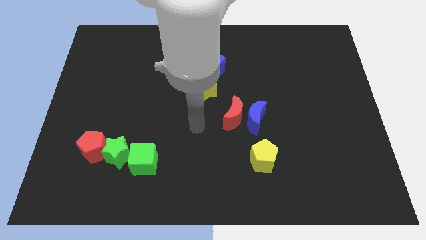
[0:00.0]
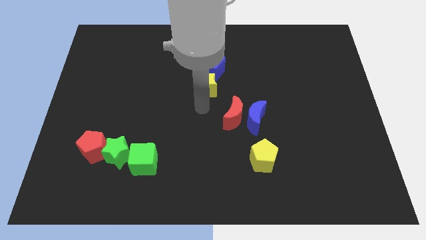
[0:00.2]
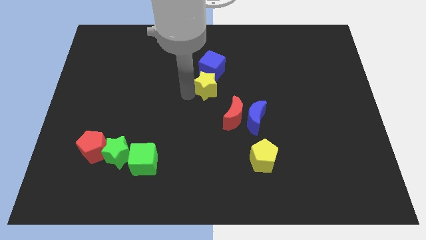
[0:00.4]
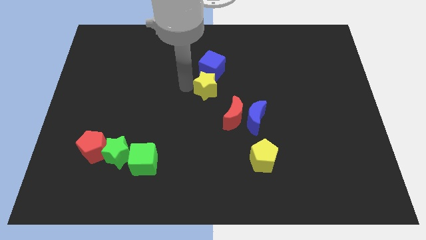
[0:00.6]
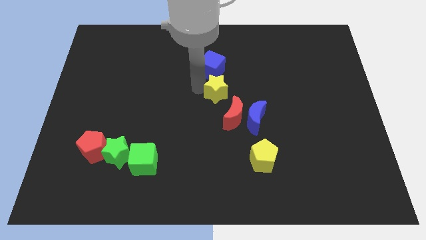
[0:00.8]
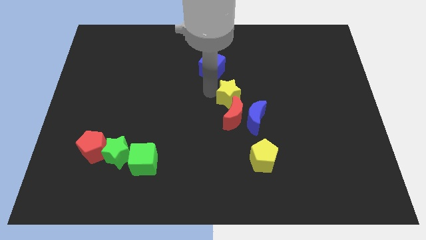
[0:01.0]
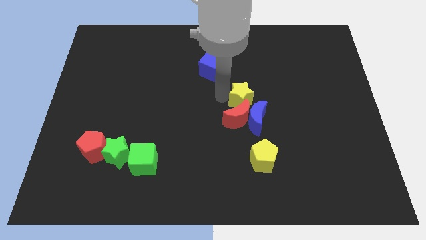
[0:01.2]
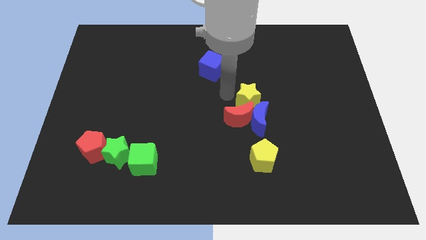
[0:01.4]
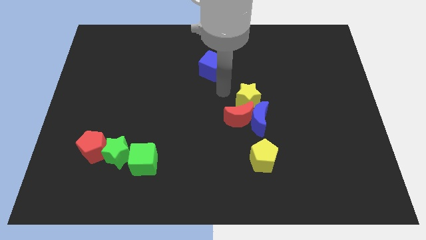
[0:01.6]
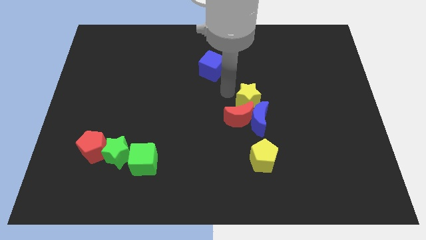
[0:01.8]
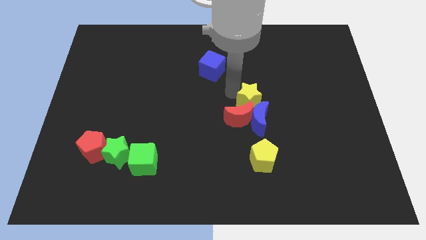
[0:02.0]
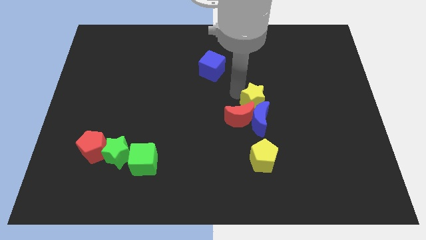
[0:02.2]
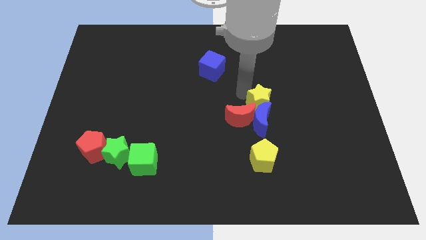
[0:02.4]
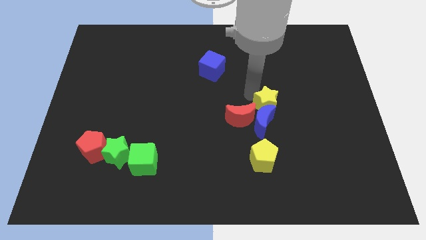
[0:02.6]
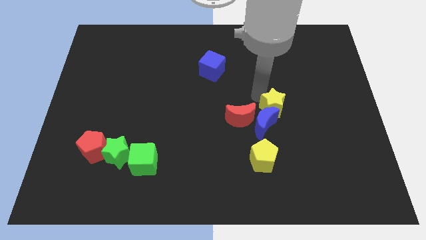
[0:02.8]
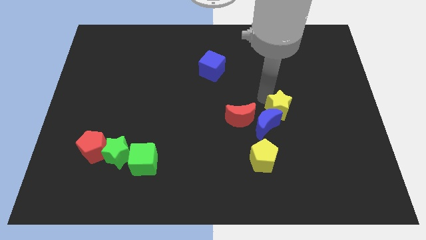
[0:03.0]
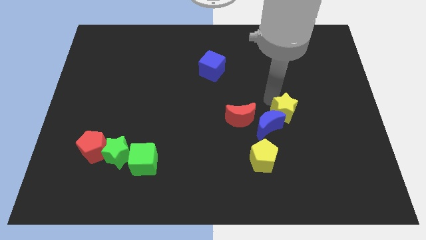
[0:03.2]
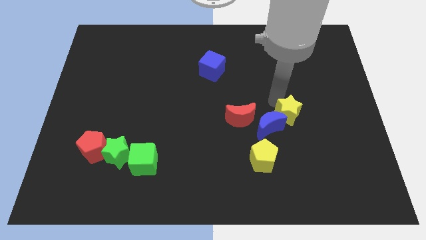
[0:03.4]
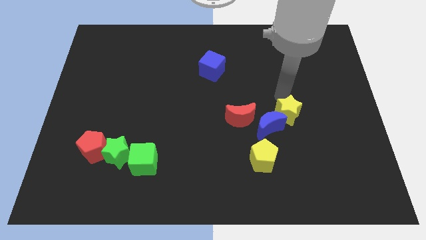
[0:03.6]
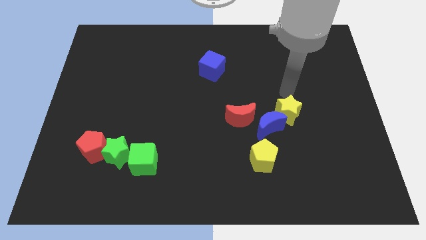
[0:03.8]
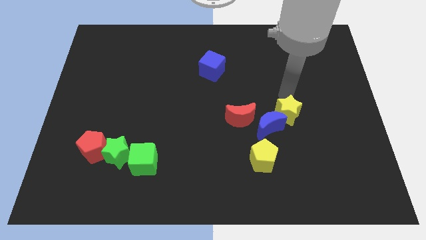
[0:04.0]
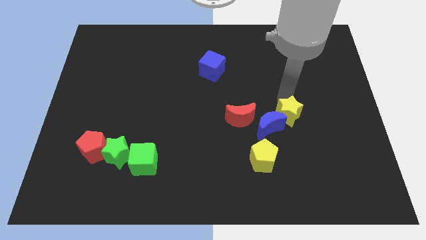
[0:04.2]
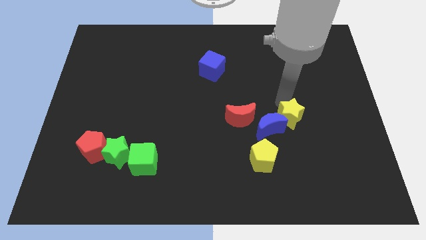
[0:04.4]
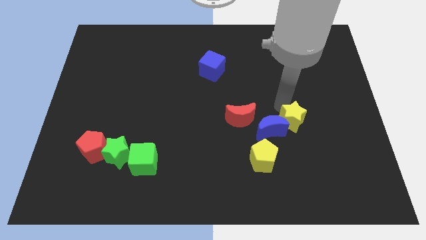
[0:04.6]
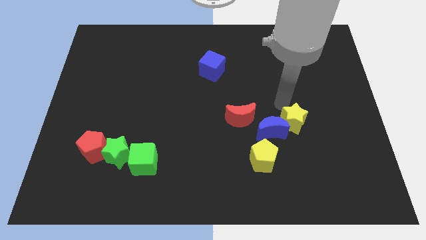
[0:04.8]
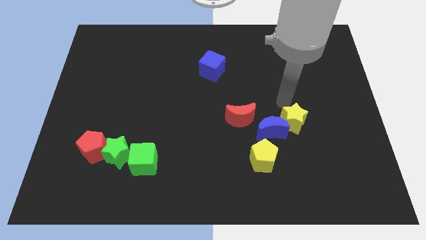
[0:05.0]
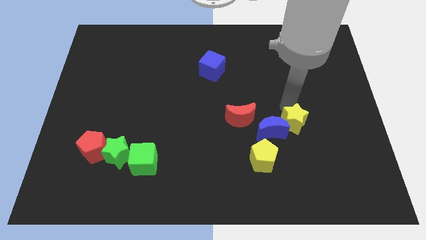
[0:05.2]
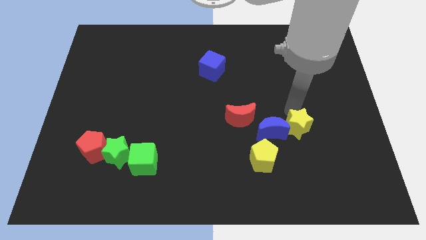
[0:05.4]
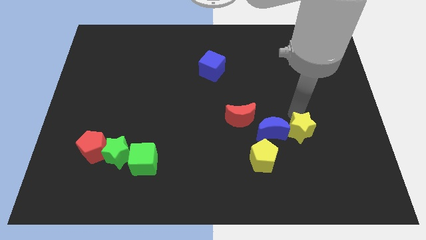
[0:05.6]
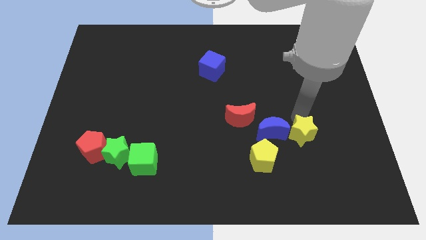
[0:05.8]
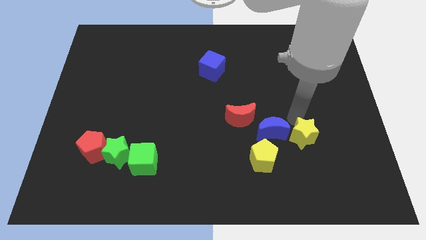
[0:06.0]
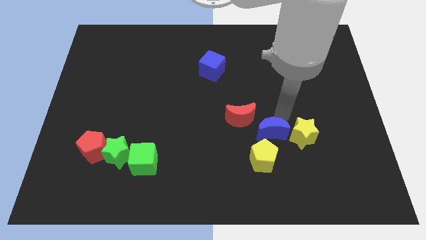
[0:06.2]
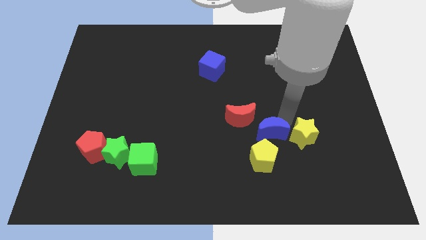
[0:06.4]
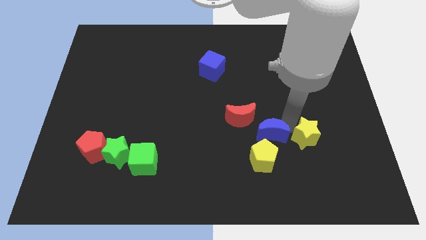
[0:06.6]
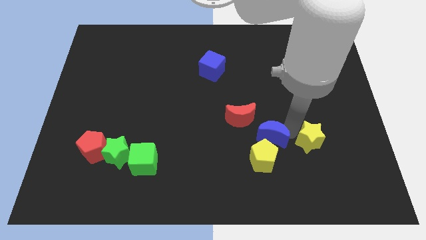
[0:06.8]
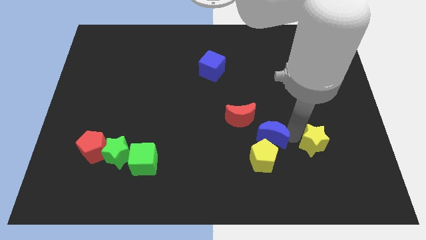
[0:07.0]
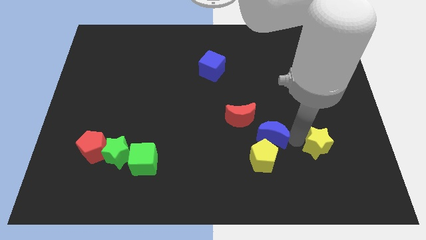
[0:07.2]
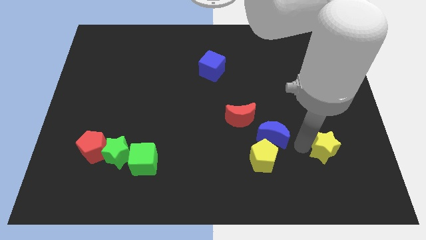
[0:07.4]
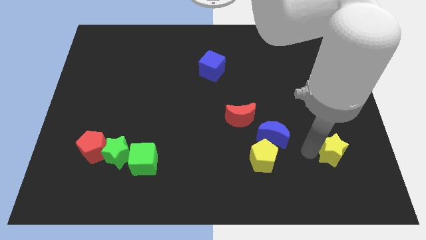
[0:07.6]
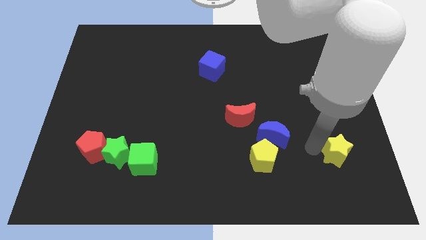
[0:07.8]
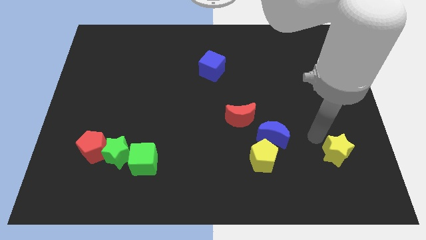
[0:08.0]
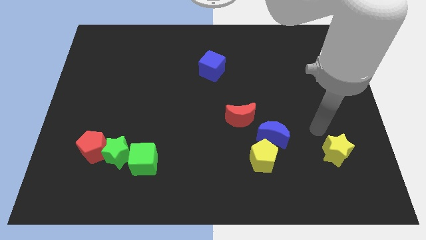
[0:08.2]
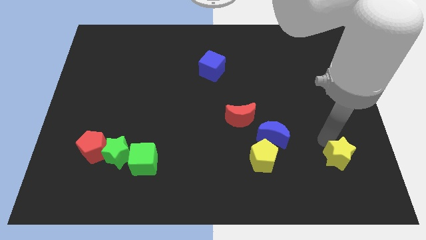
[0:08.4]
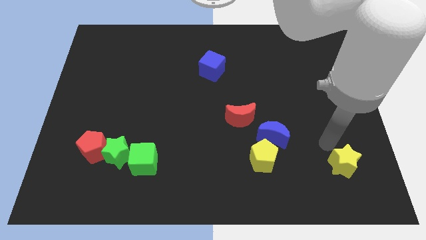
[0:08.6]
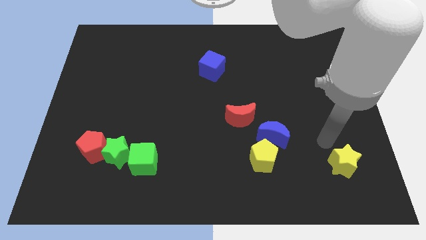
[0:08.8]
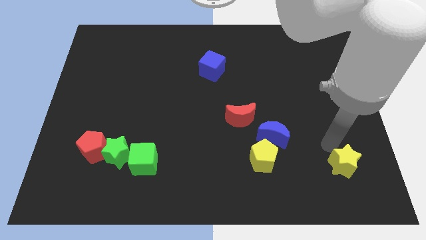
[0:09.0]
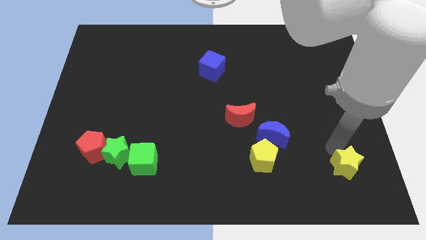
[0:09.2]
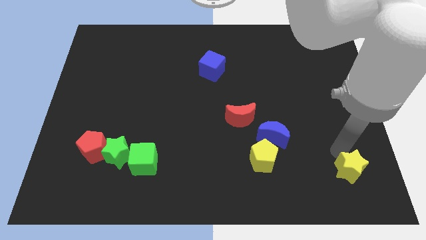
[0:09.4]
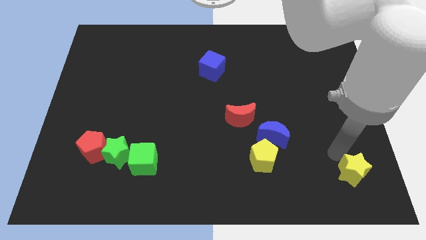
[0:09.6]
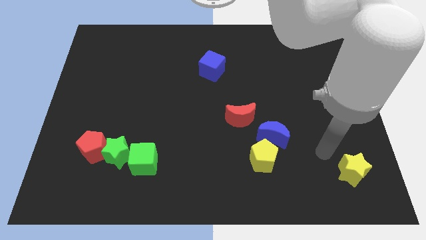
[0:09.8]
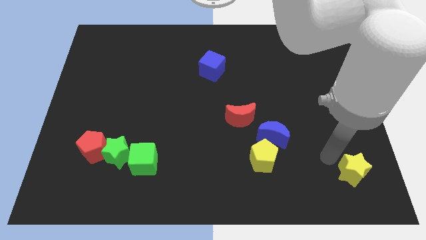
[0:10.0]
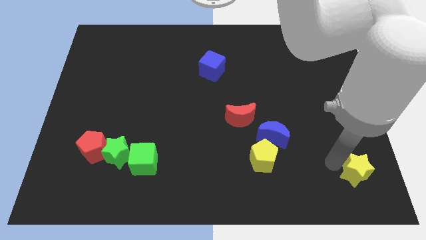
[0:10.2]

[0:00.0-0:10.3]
slide the yellow star to the bottom right of the board

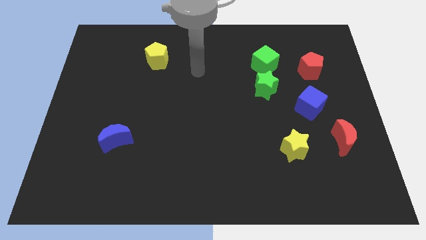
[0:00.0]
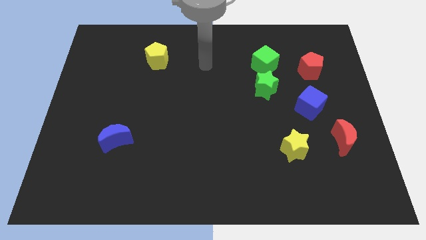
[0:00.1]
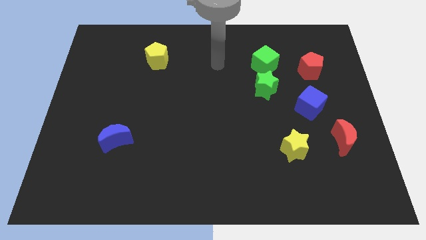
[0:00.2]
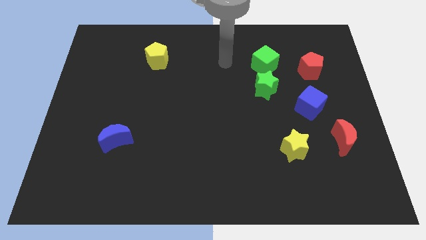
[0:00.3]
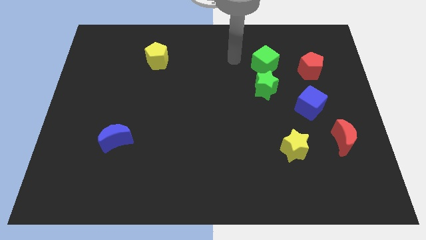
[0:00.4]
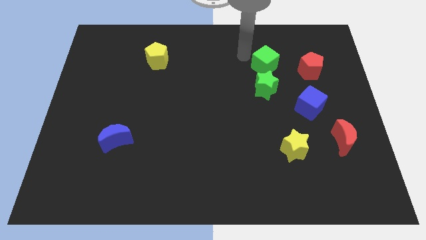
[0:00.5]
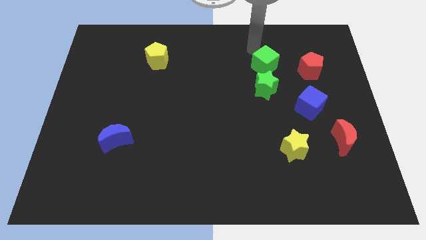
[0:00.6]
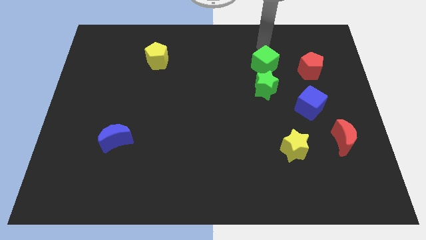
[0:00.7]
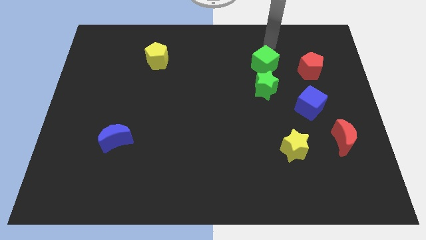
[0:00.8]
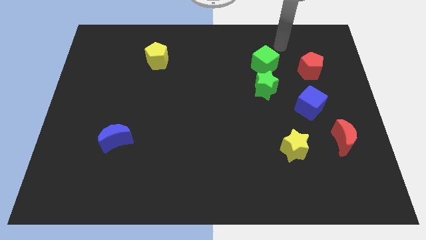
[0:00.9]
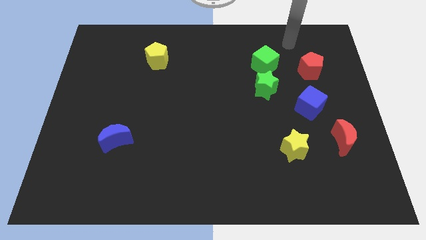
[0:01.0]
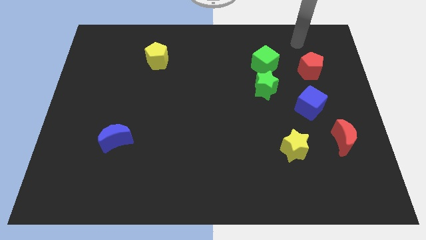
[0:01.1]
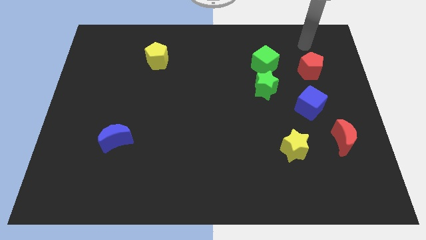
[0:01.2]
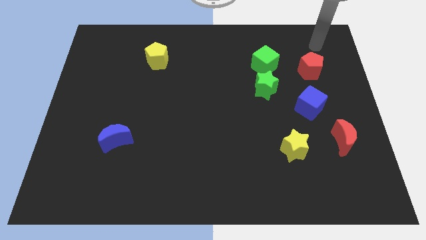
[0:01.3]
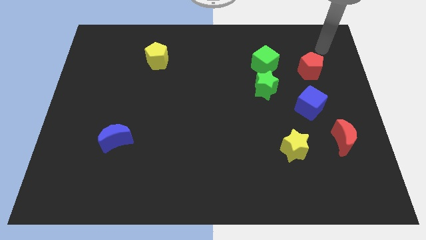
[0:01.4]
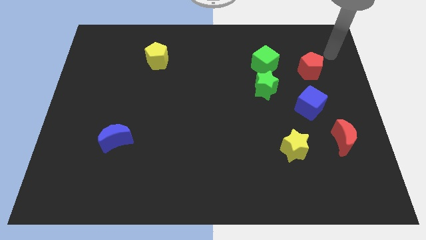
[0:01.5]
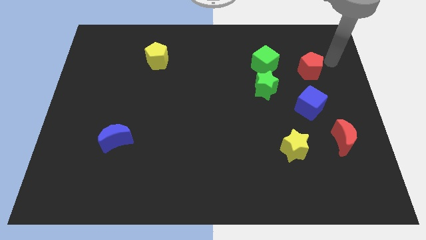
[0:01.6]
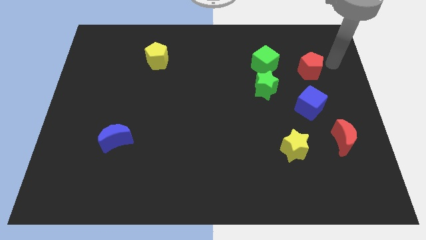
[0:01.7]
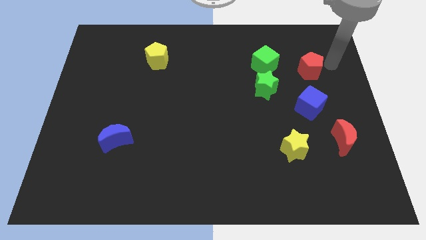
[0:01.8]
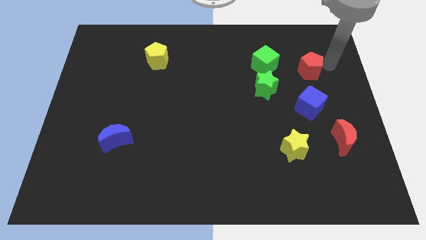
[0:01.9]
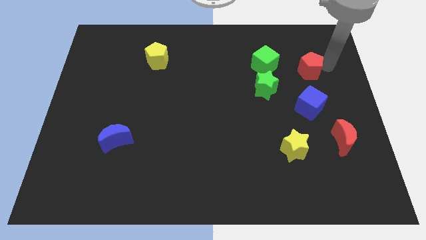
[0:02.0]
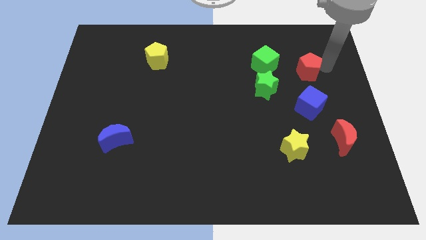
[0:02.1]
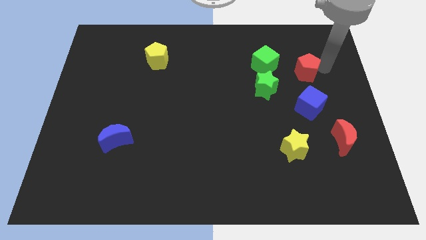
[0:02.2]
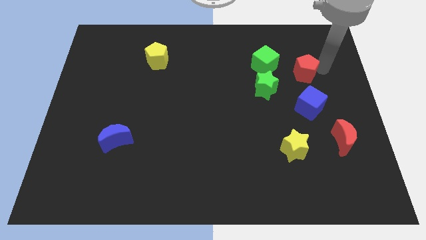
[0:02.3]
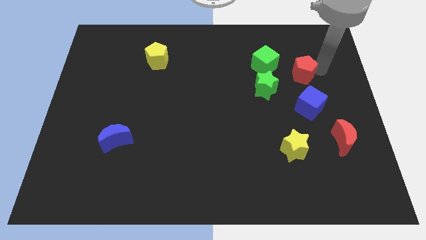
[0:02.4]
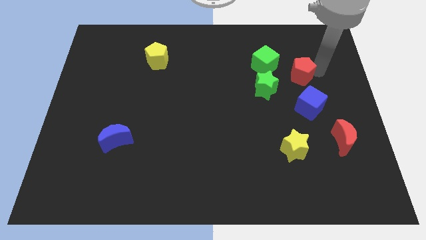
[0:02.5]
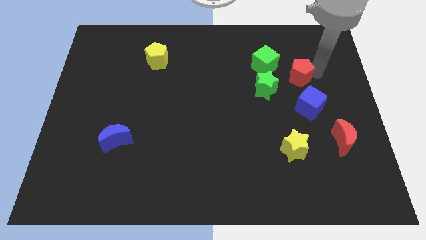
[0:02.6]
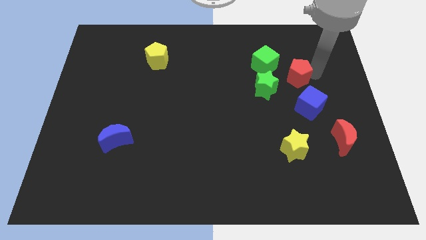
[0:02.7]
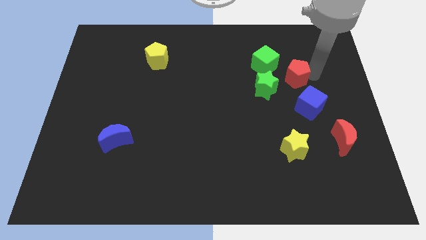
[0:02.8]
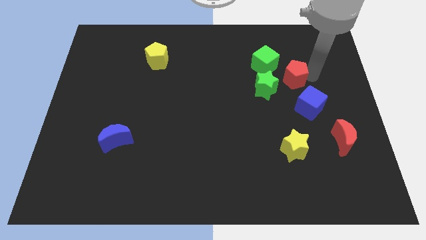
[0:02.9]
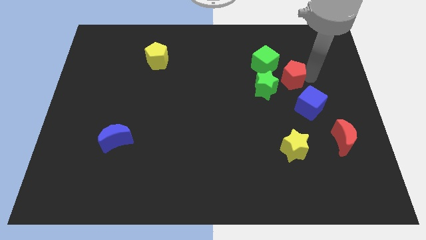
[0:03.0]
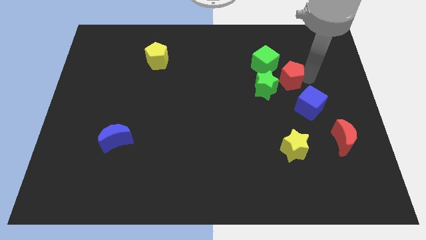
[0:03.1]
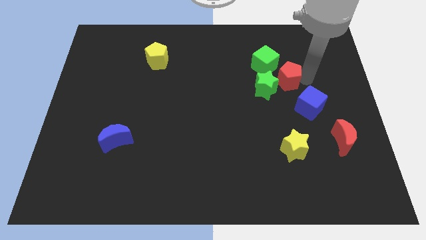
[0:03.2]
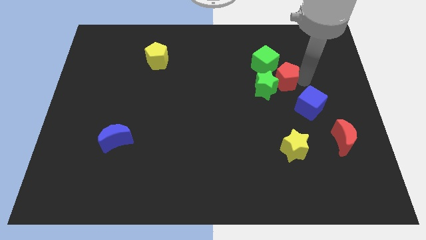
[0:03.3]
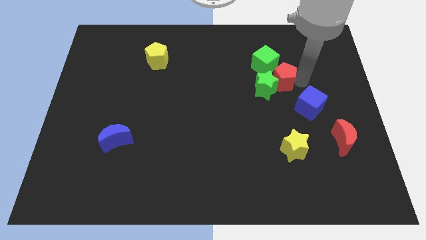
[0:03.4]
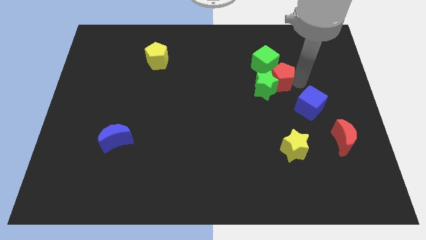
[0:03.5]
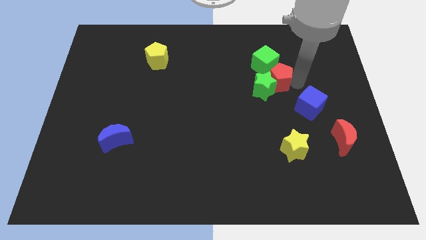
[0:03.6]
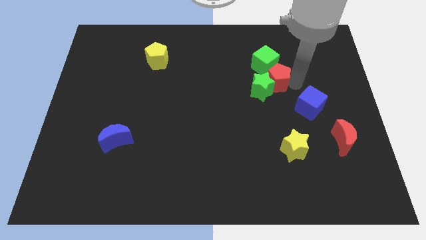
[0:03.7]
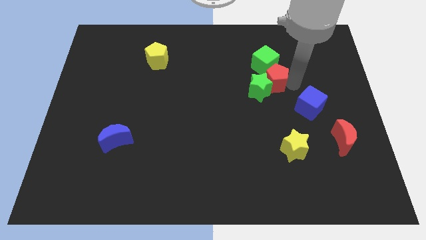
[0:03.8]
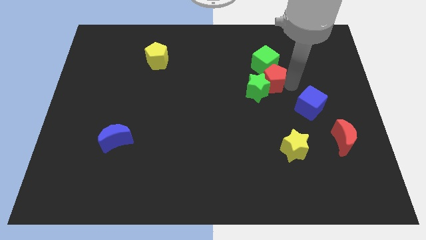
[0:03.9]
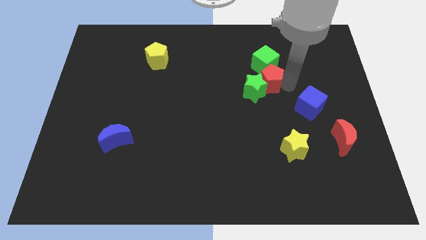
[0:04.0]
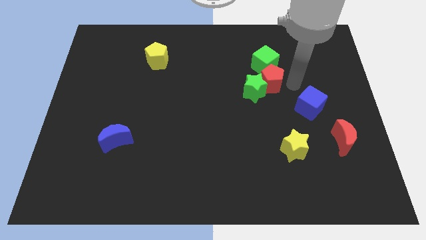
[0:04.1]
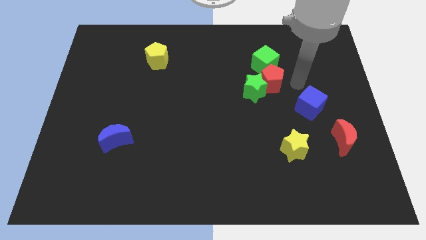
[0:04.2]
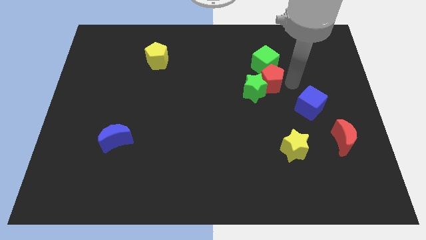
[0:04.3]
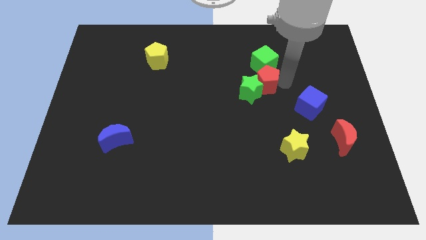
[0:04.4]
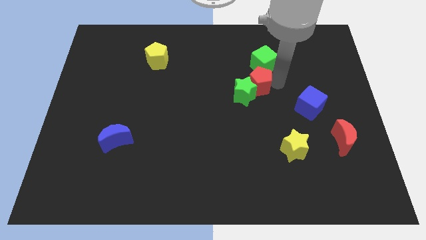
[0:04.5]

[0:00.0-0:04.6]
put the red pentagon to the middle of the board
